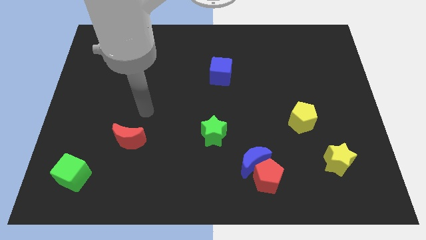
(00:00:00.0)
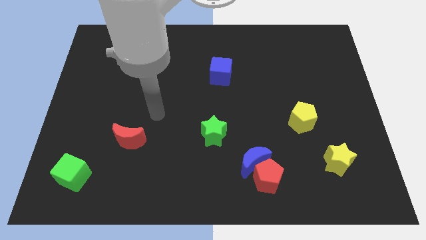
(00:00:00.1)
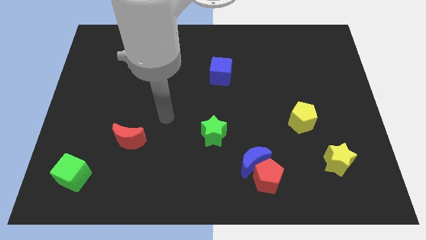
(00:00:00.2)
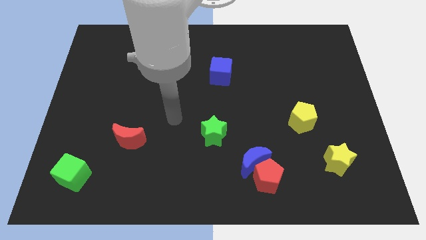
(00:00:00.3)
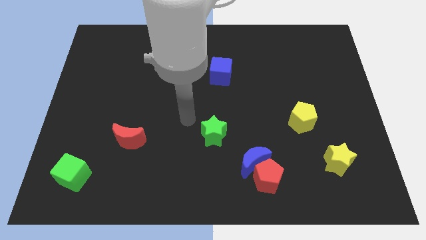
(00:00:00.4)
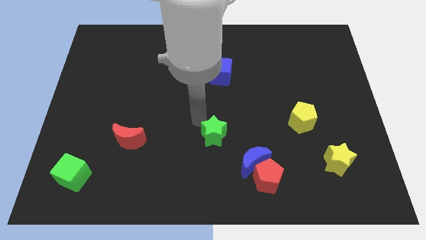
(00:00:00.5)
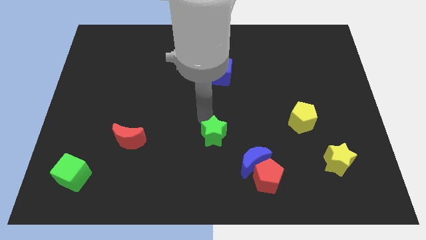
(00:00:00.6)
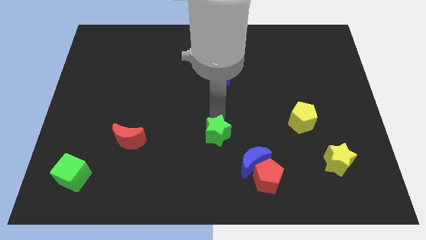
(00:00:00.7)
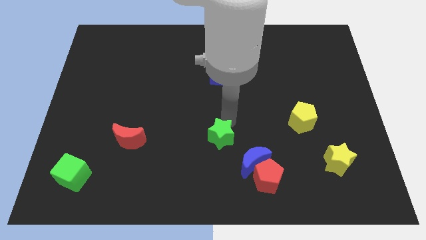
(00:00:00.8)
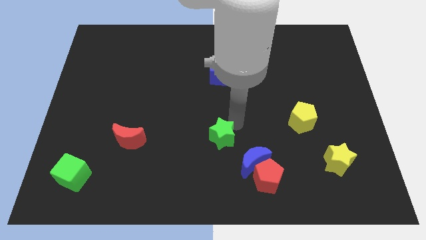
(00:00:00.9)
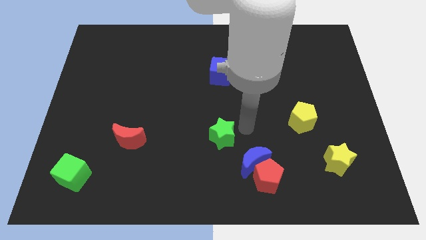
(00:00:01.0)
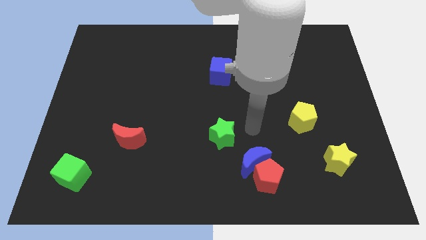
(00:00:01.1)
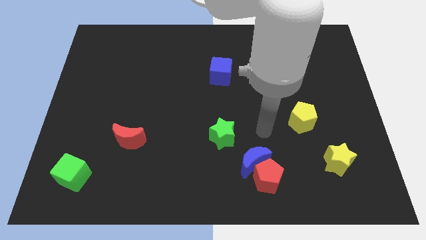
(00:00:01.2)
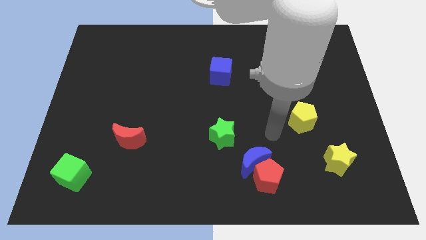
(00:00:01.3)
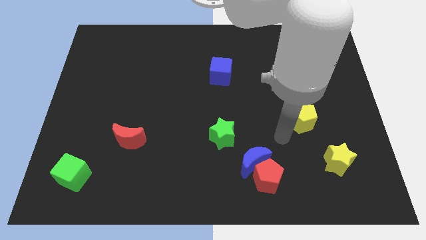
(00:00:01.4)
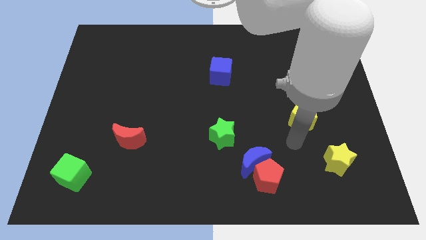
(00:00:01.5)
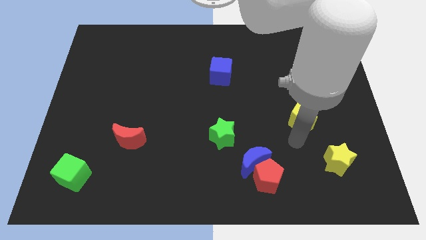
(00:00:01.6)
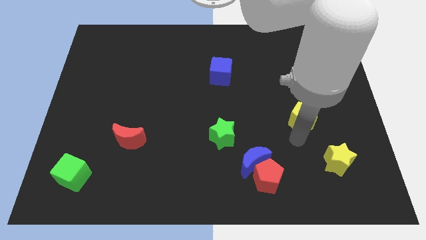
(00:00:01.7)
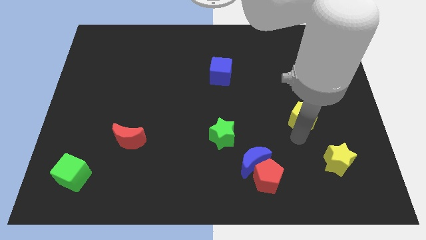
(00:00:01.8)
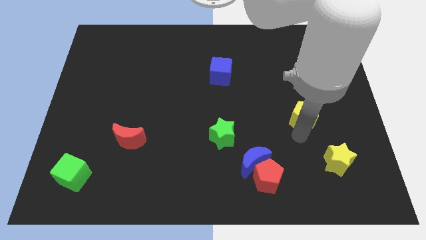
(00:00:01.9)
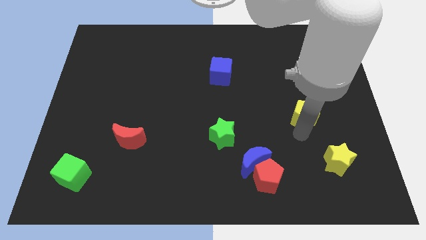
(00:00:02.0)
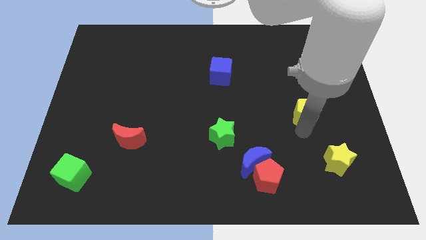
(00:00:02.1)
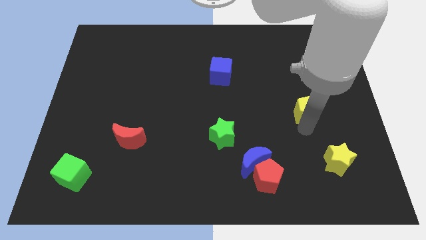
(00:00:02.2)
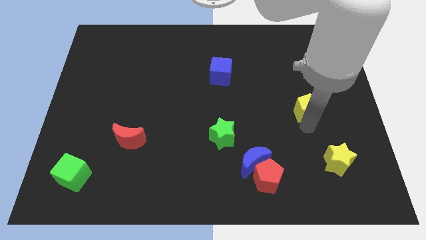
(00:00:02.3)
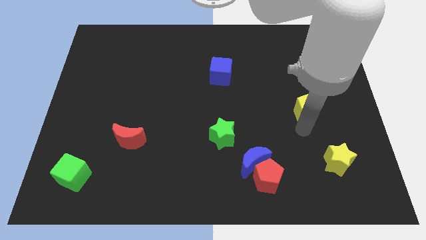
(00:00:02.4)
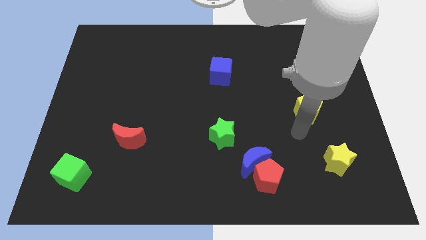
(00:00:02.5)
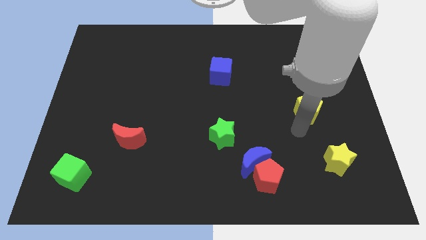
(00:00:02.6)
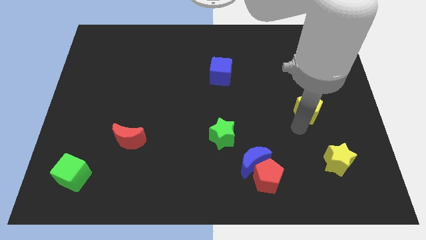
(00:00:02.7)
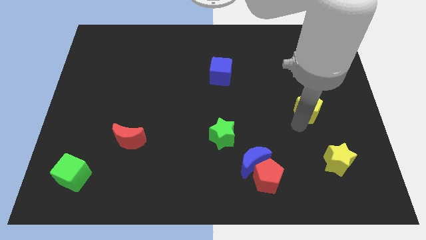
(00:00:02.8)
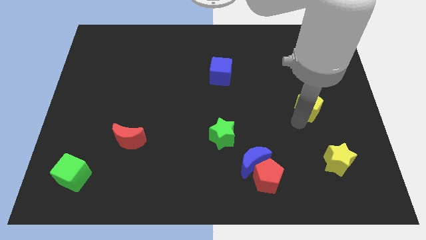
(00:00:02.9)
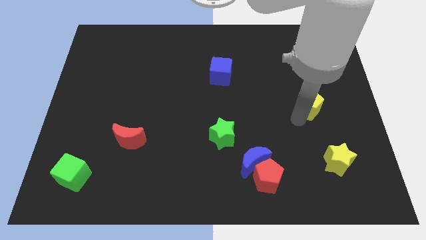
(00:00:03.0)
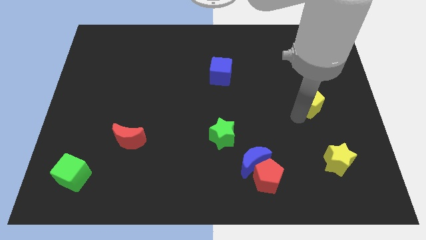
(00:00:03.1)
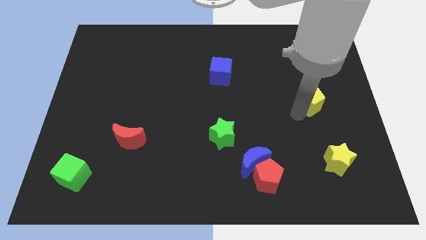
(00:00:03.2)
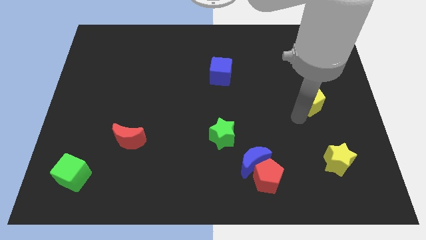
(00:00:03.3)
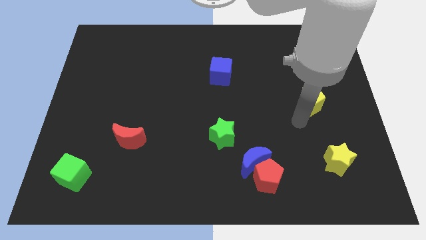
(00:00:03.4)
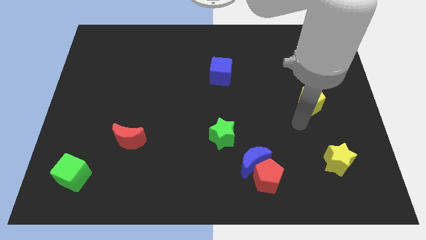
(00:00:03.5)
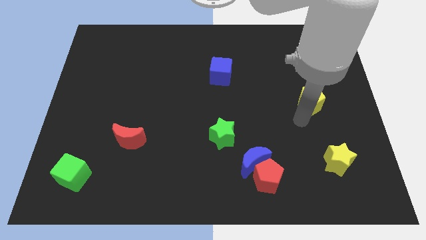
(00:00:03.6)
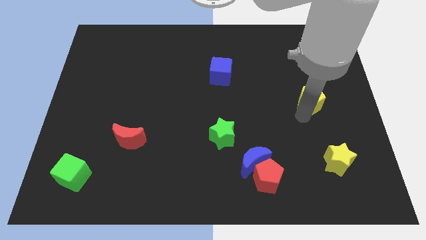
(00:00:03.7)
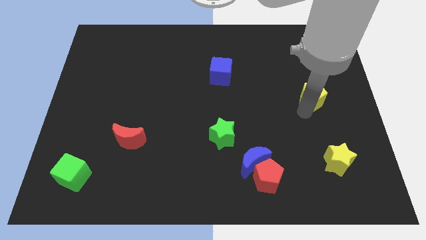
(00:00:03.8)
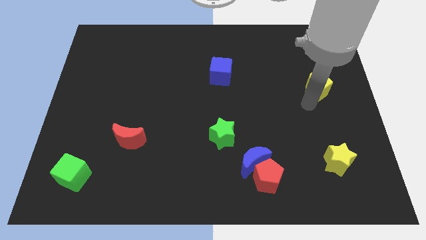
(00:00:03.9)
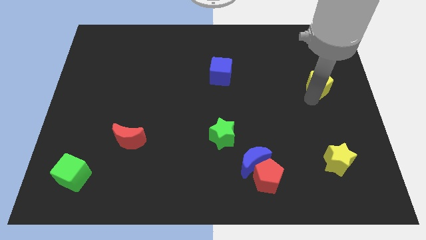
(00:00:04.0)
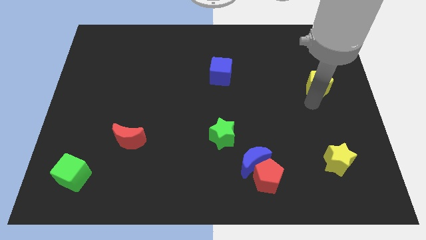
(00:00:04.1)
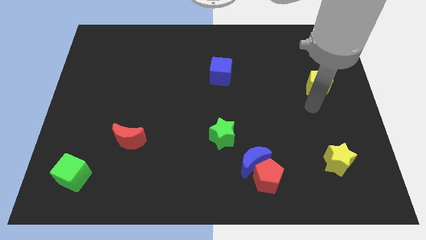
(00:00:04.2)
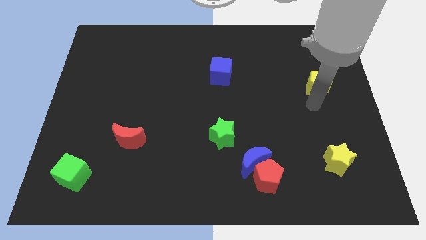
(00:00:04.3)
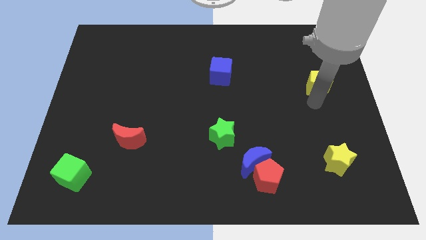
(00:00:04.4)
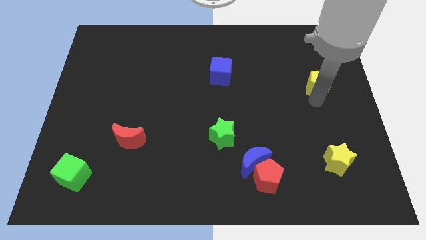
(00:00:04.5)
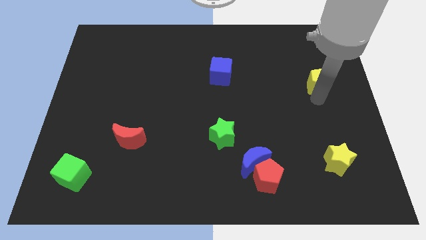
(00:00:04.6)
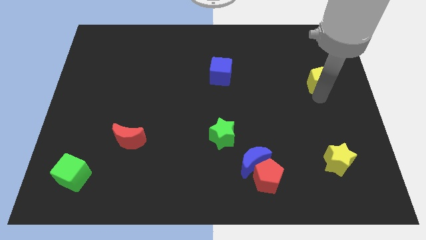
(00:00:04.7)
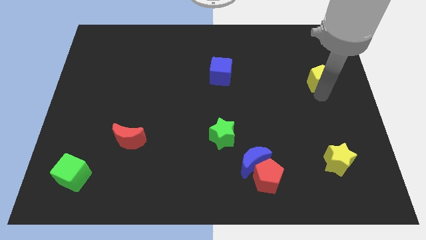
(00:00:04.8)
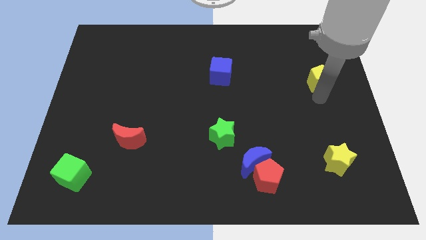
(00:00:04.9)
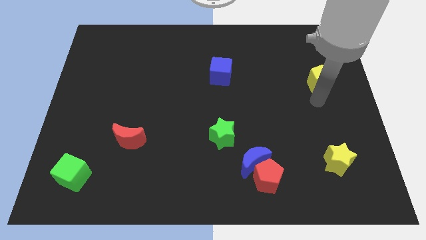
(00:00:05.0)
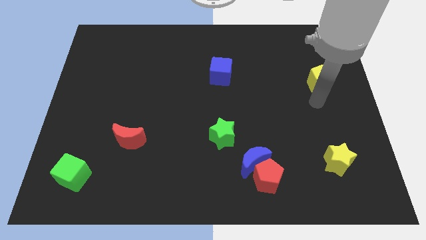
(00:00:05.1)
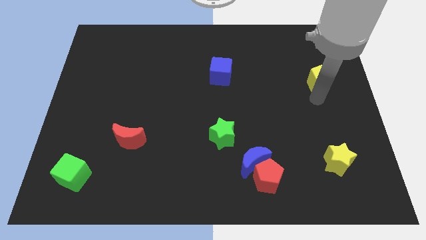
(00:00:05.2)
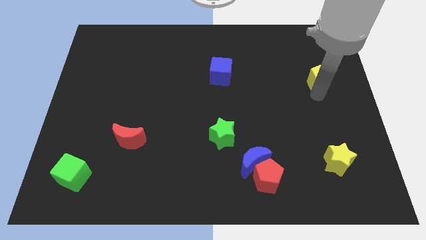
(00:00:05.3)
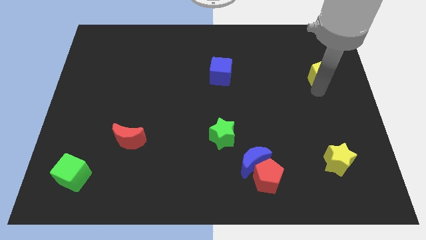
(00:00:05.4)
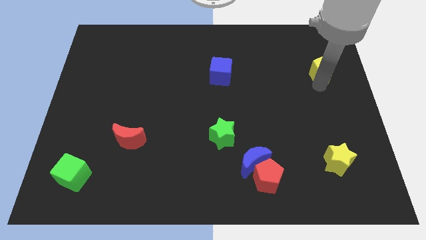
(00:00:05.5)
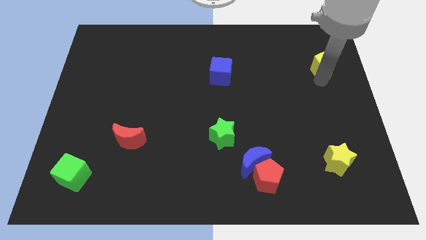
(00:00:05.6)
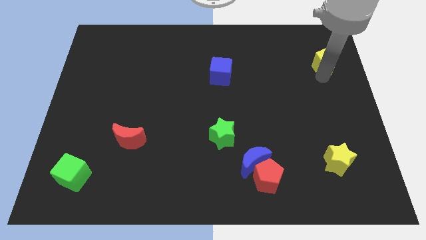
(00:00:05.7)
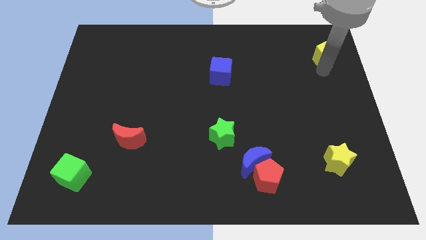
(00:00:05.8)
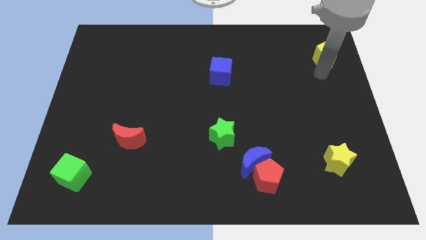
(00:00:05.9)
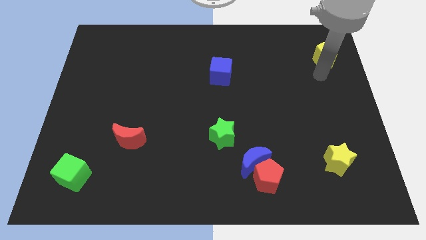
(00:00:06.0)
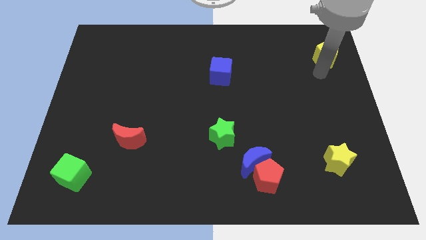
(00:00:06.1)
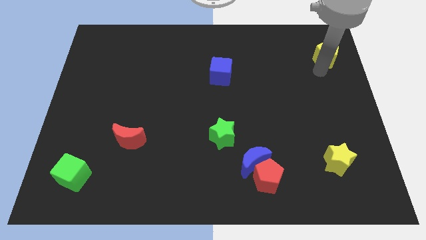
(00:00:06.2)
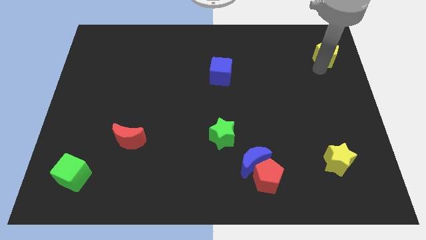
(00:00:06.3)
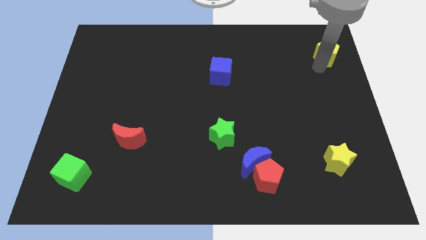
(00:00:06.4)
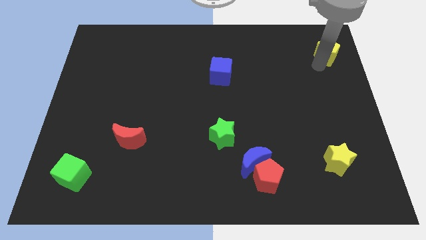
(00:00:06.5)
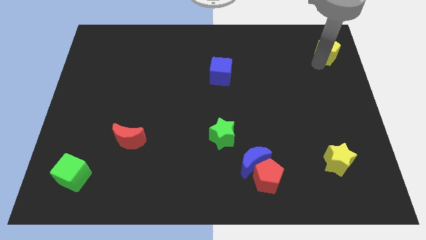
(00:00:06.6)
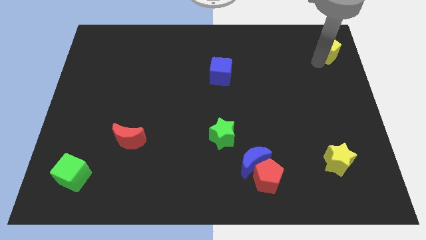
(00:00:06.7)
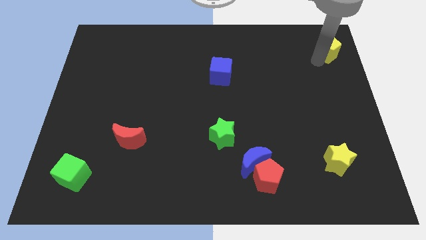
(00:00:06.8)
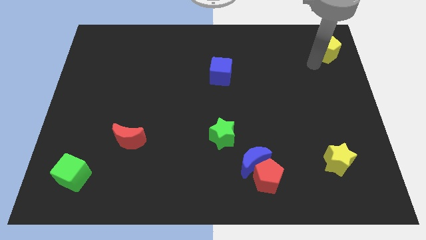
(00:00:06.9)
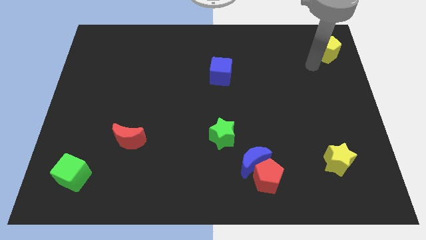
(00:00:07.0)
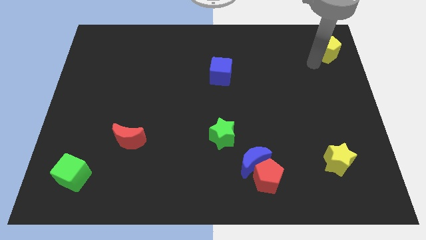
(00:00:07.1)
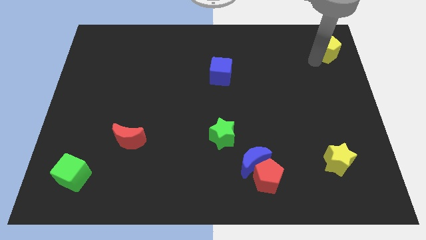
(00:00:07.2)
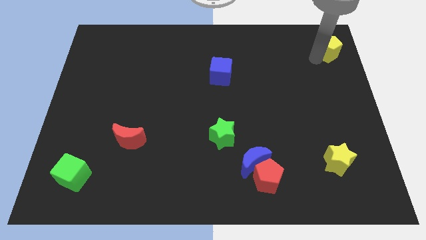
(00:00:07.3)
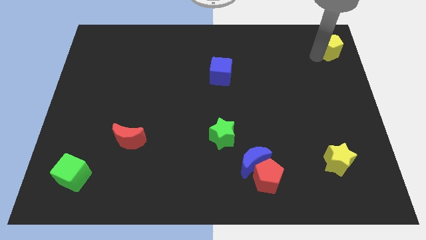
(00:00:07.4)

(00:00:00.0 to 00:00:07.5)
move the yellow pentagon to the top right corner
